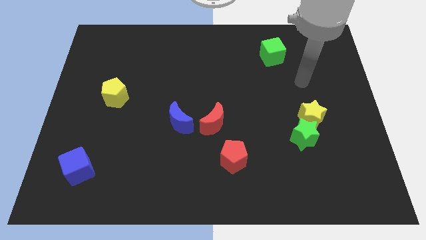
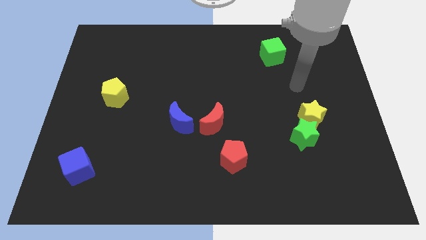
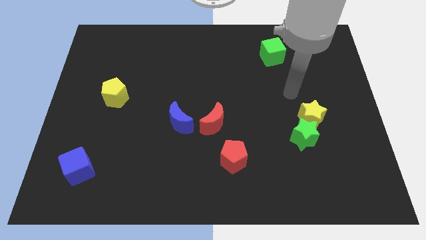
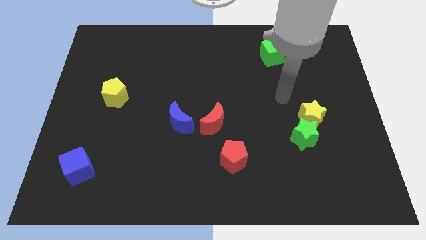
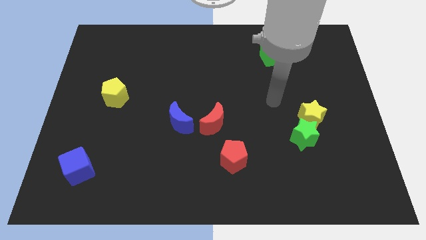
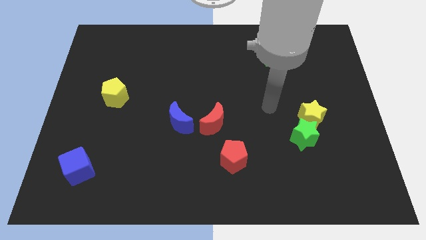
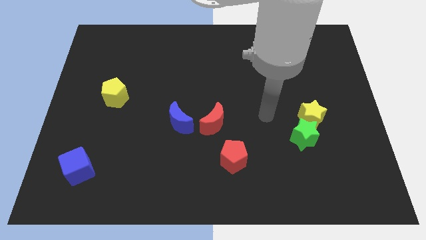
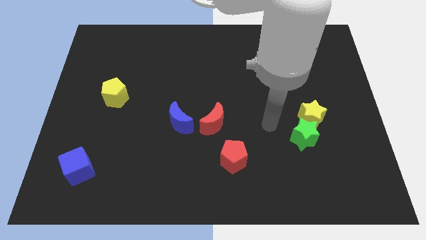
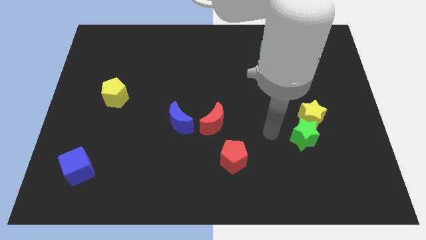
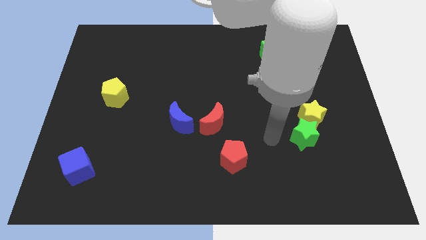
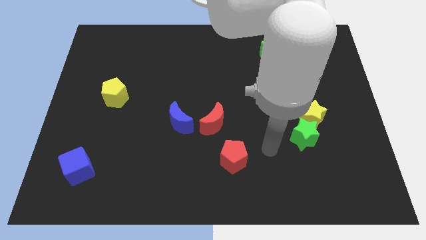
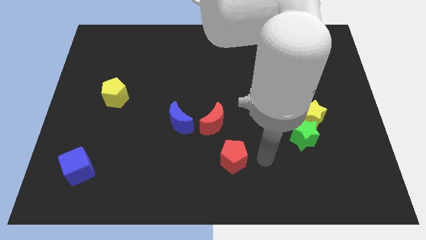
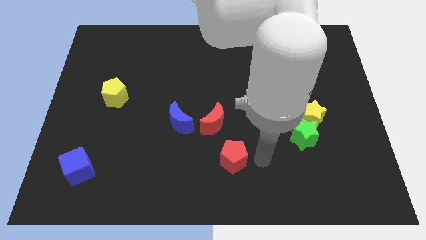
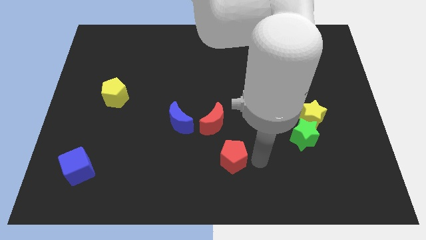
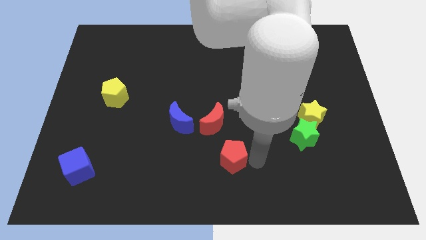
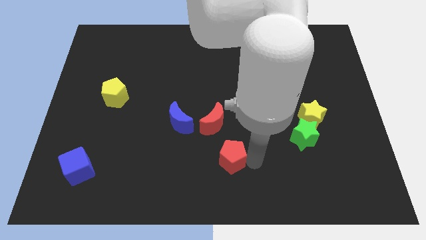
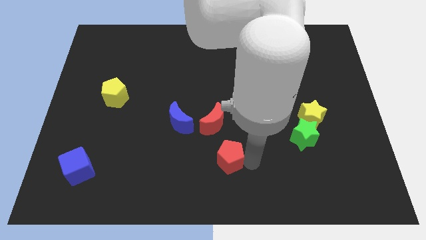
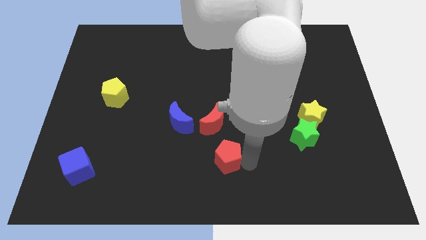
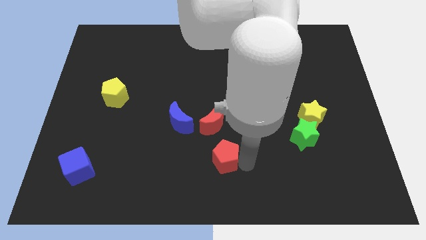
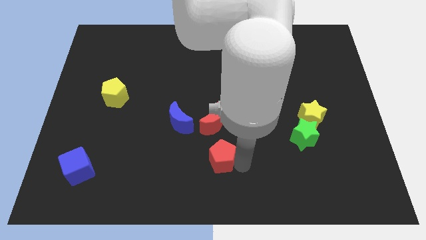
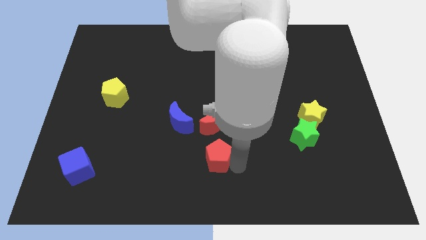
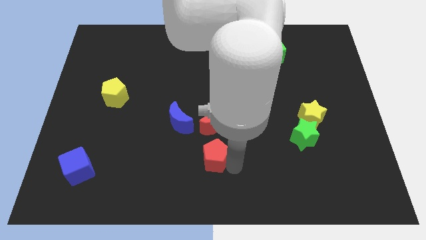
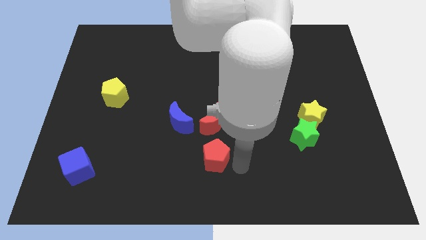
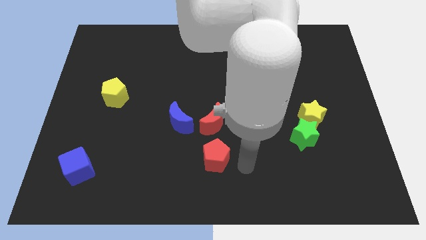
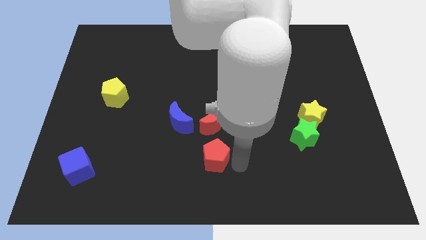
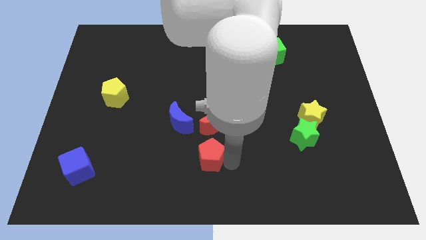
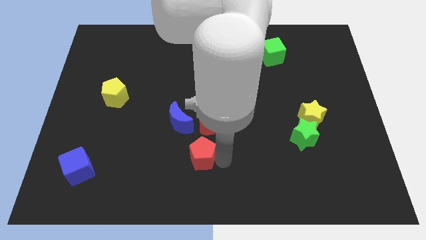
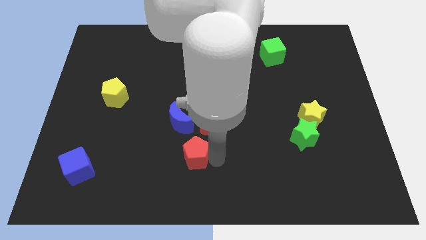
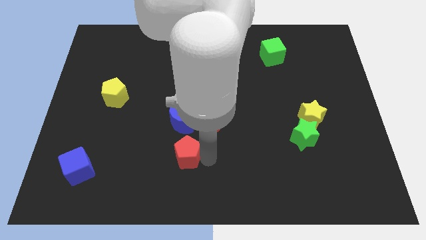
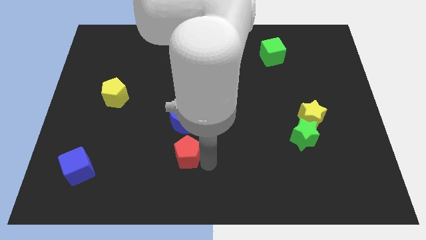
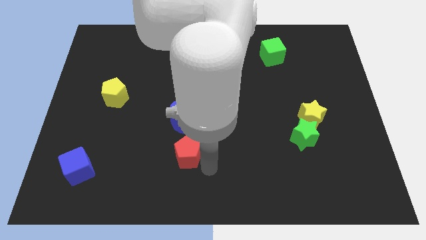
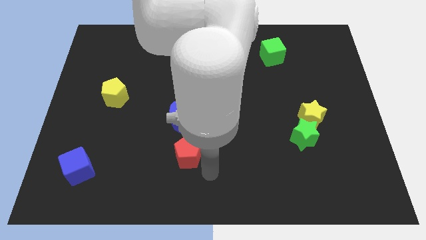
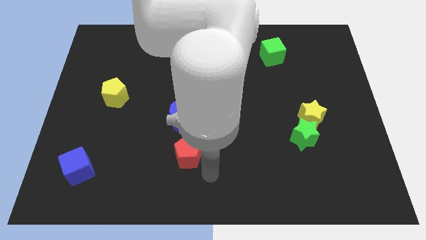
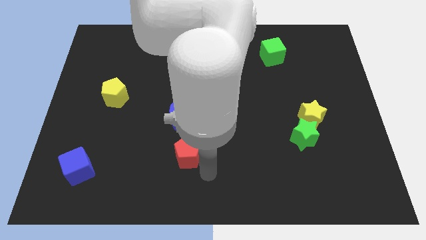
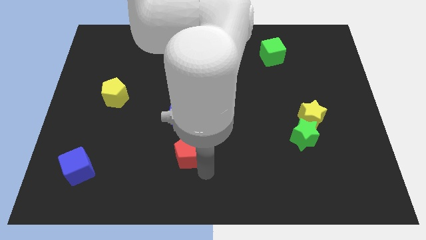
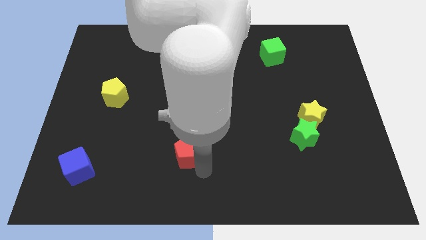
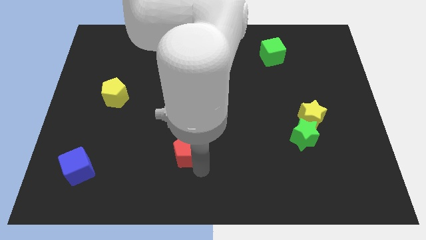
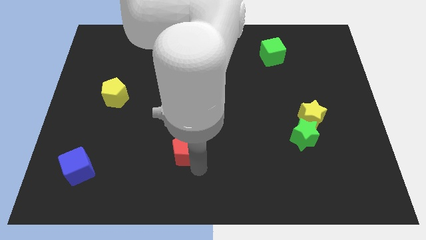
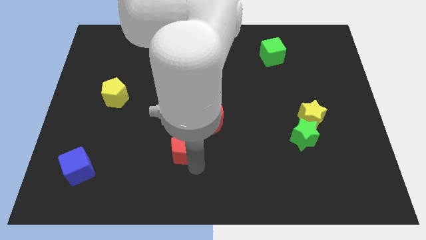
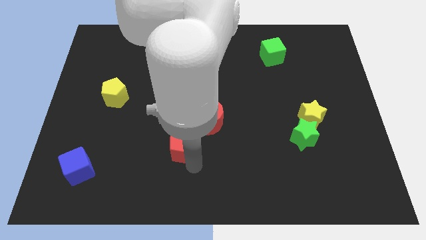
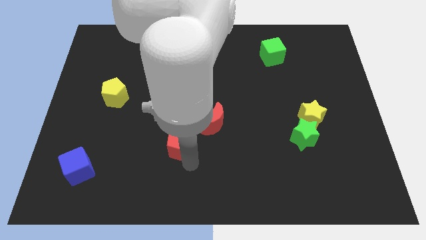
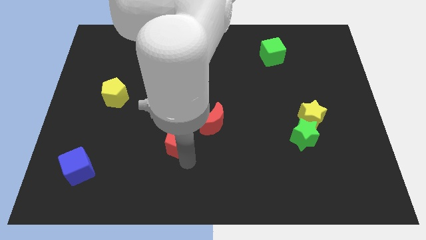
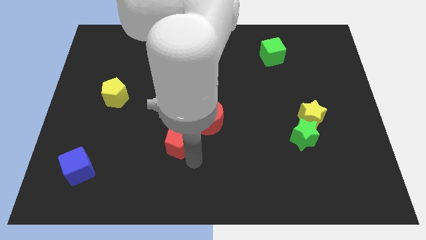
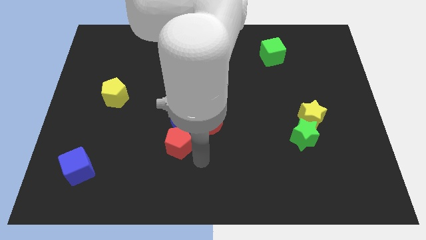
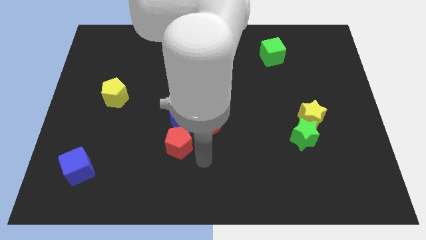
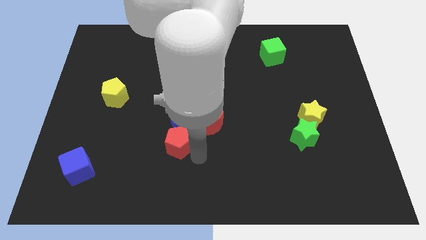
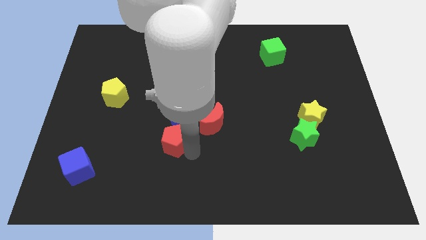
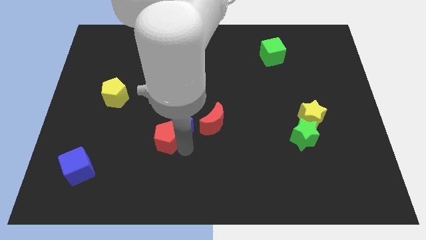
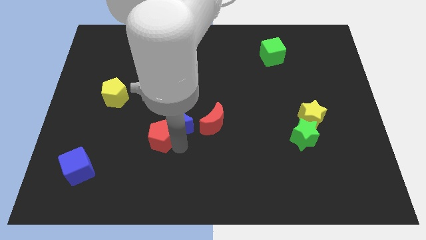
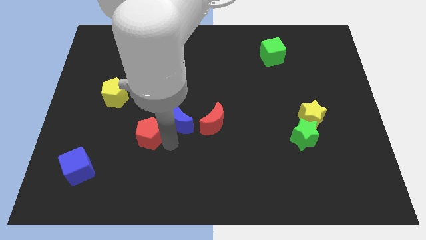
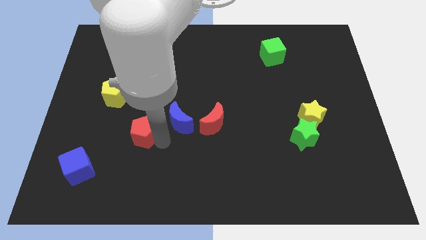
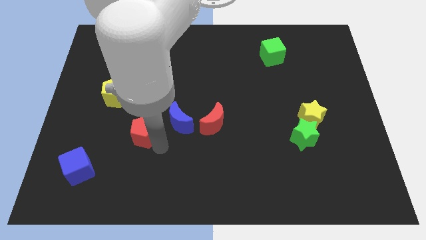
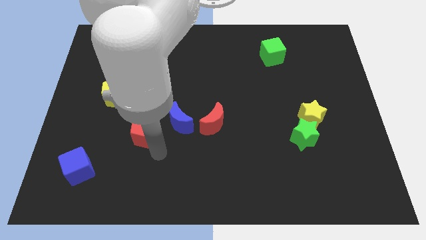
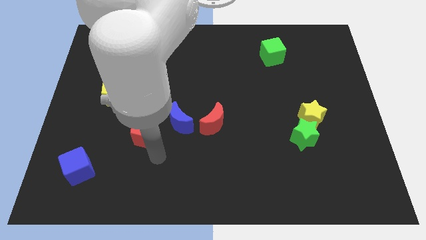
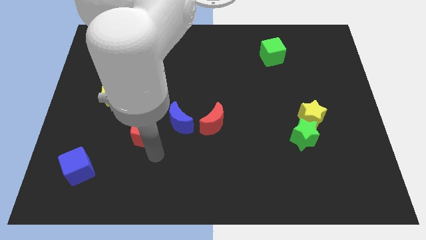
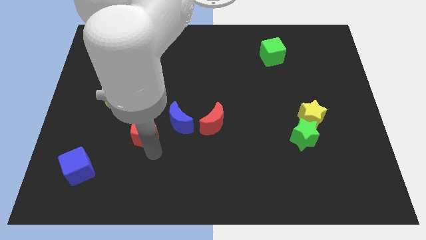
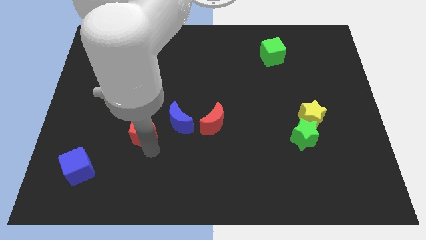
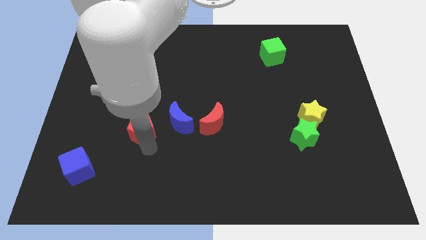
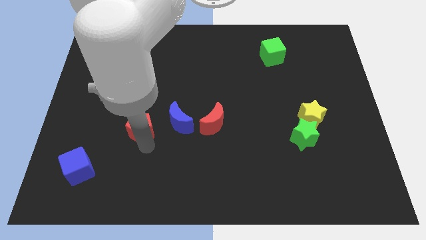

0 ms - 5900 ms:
slide the red pentagon to the bottom right side of the yellow pentagon

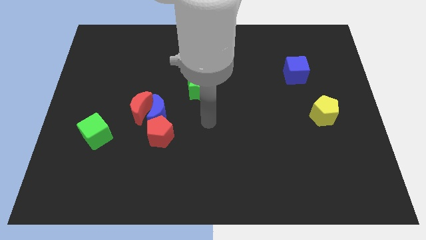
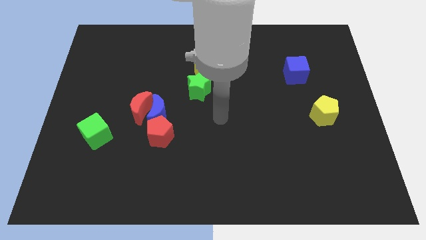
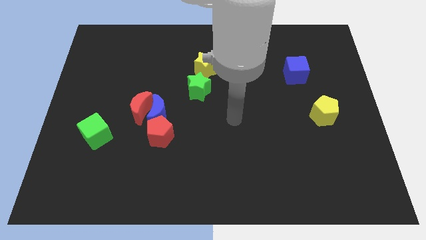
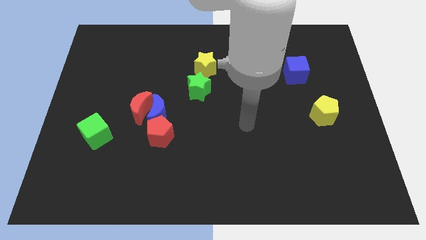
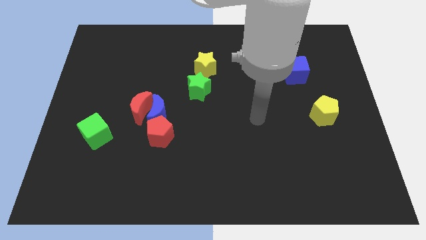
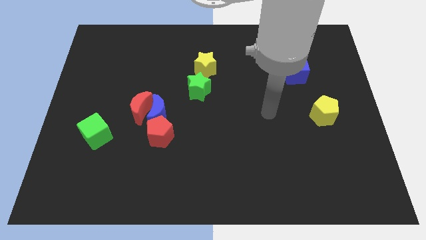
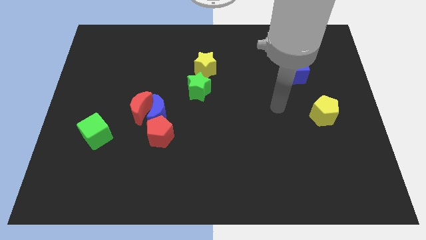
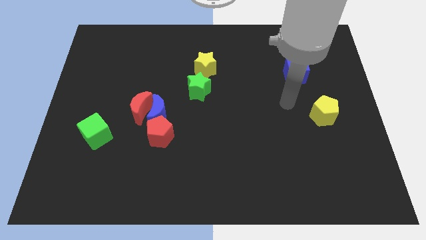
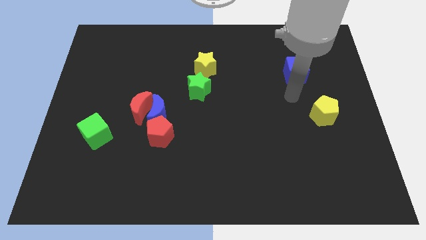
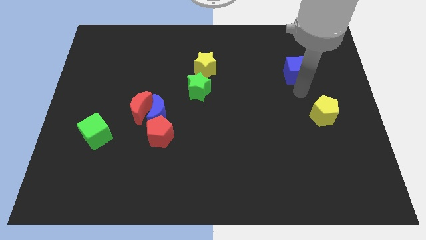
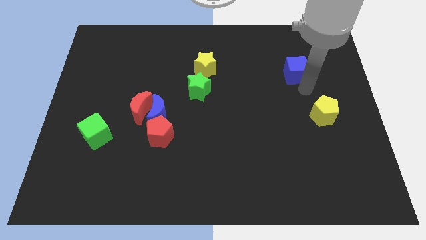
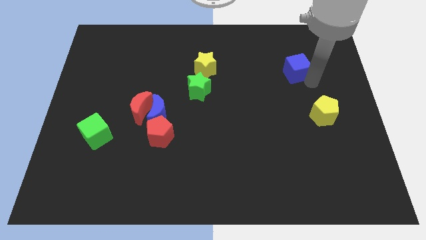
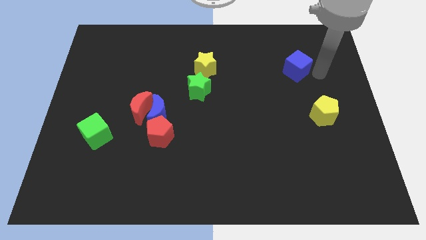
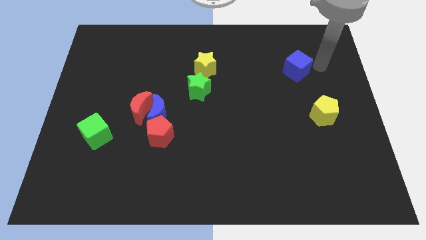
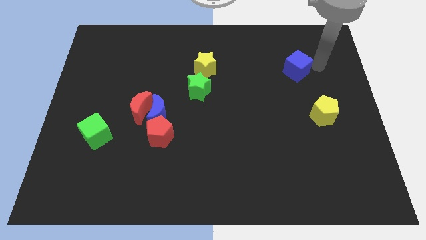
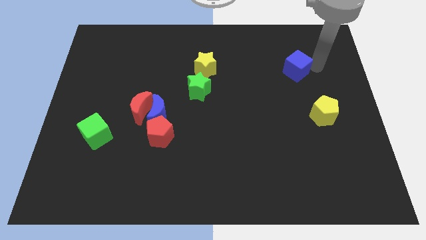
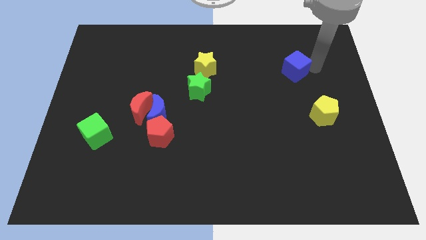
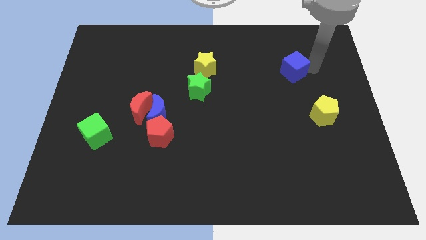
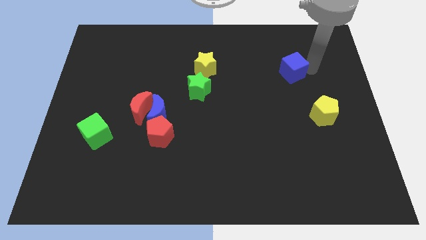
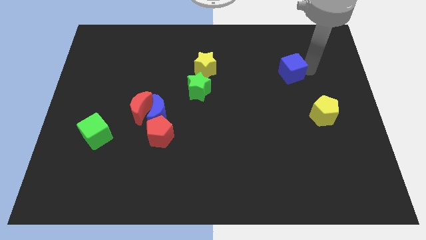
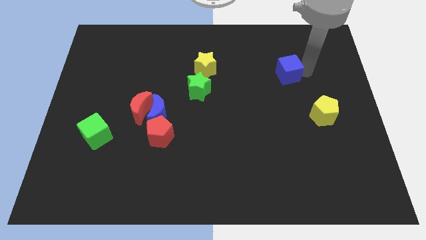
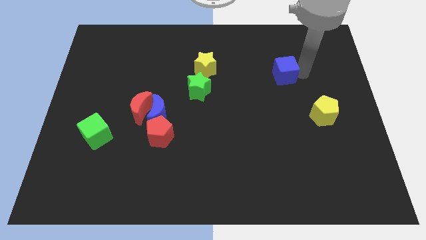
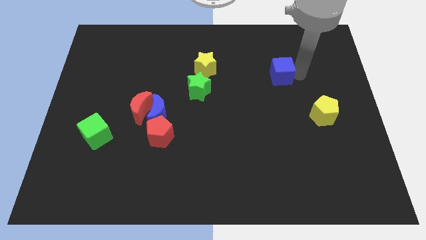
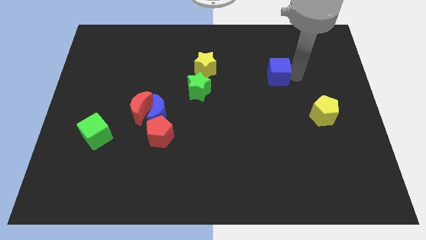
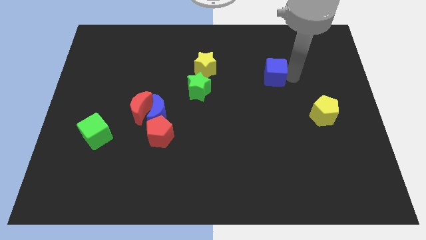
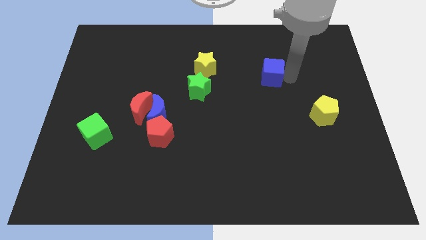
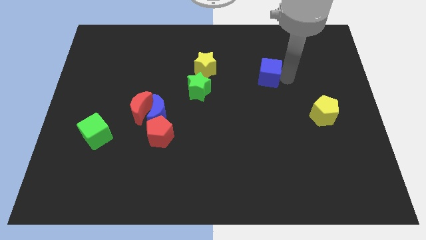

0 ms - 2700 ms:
slide the blue cube just right of the yellow star
